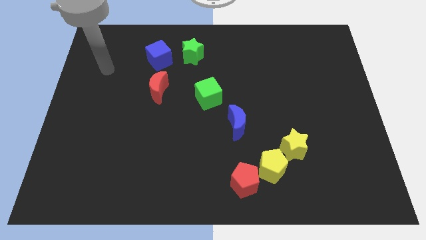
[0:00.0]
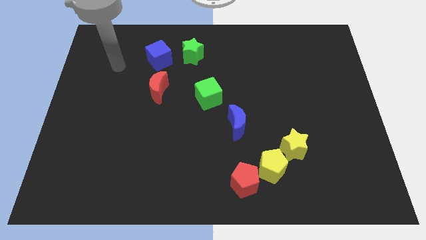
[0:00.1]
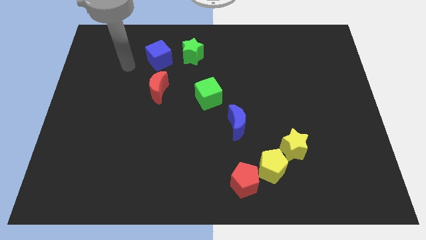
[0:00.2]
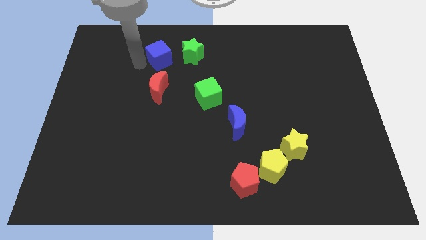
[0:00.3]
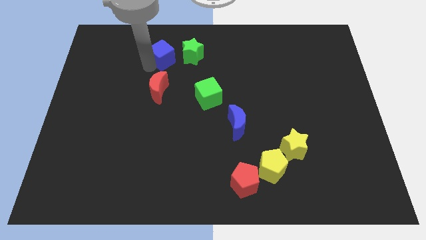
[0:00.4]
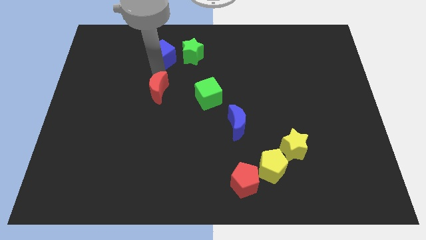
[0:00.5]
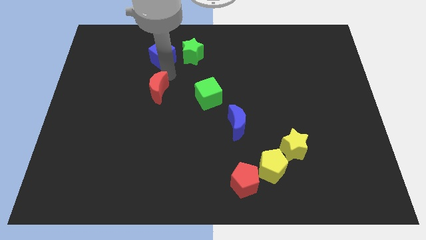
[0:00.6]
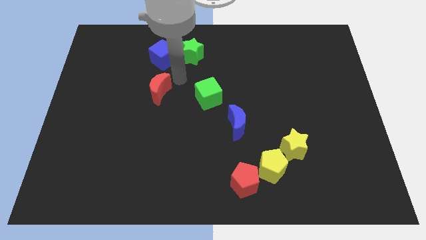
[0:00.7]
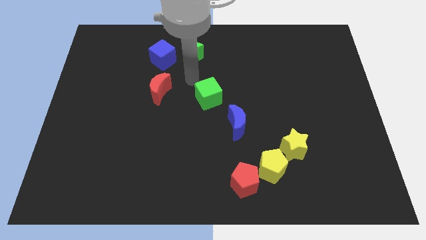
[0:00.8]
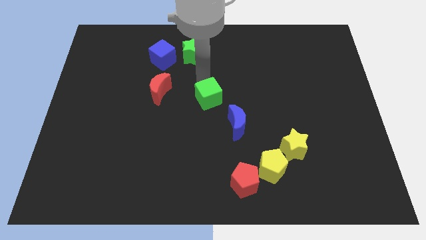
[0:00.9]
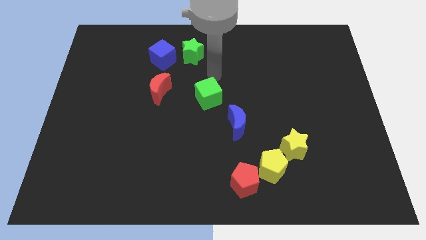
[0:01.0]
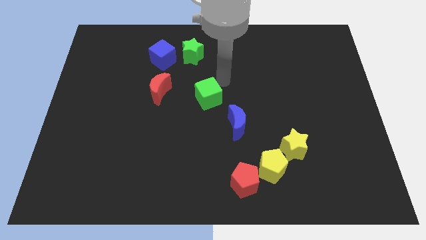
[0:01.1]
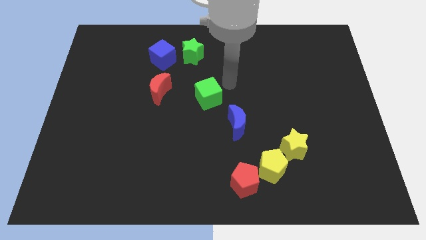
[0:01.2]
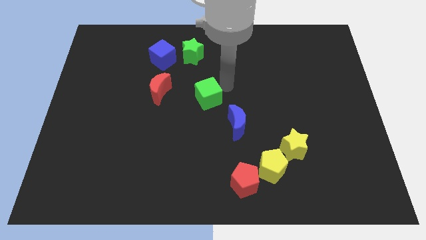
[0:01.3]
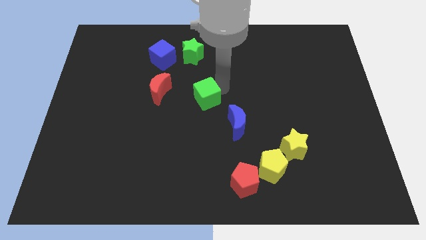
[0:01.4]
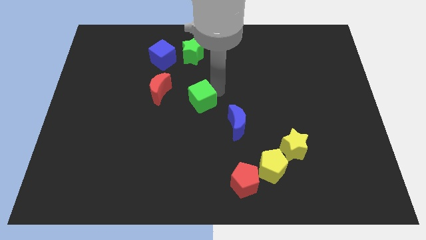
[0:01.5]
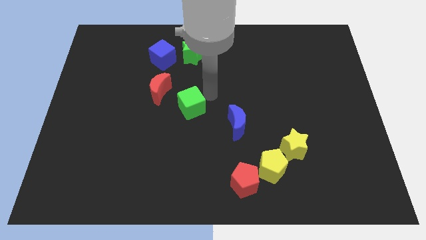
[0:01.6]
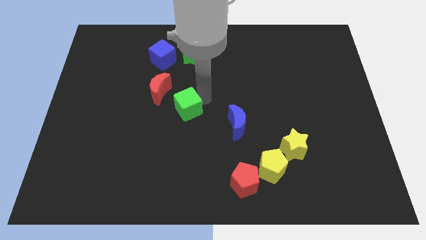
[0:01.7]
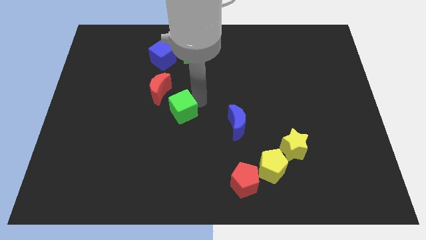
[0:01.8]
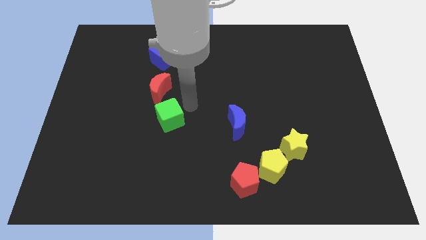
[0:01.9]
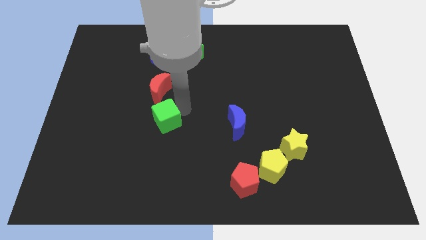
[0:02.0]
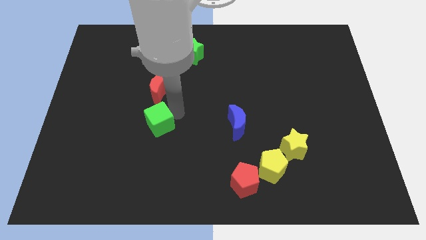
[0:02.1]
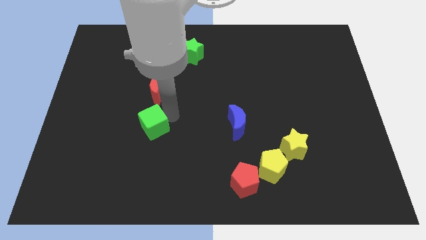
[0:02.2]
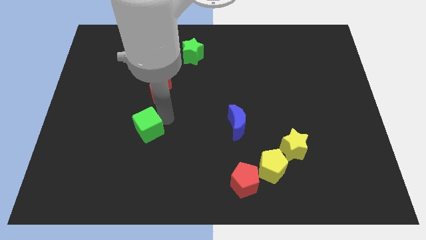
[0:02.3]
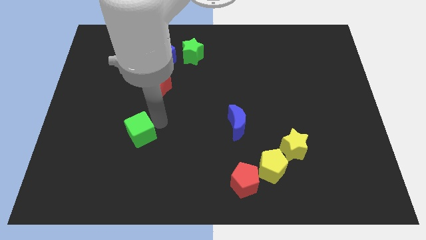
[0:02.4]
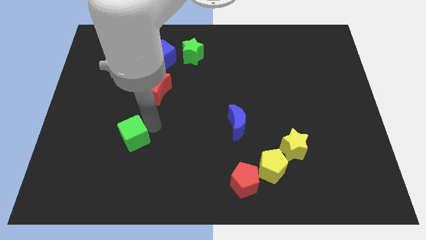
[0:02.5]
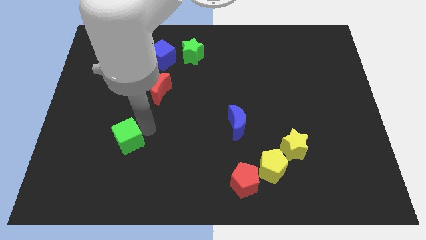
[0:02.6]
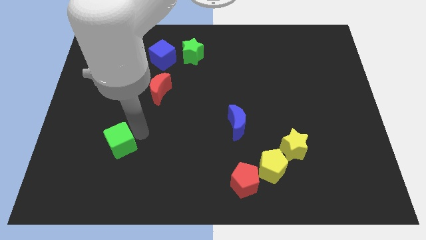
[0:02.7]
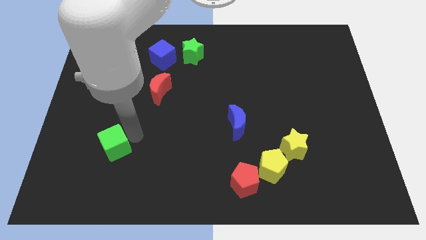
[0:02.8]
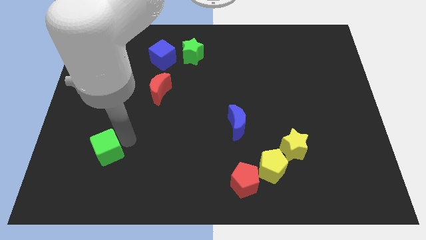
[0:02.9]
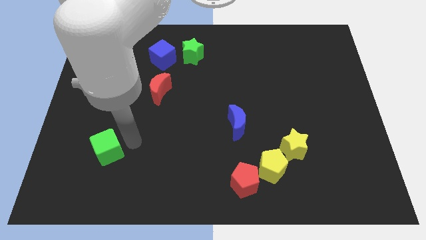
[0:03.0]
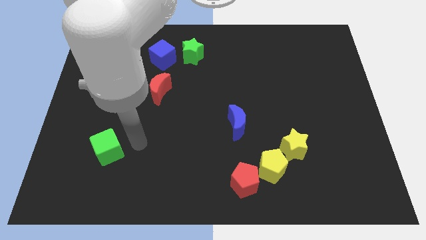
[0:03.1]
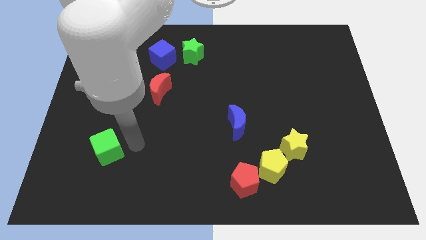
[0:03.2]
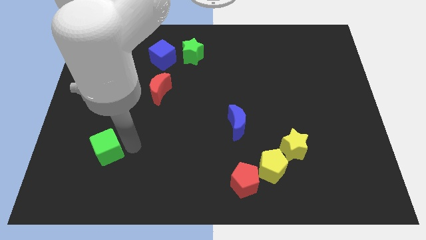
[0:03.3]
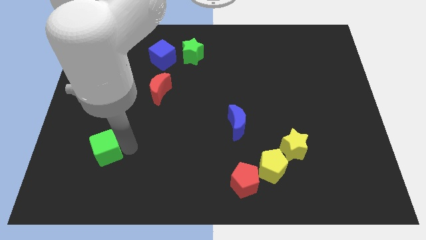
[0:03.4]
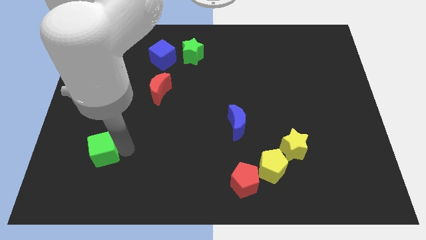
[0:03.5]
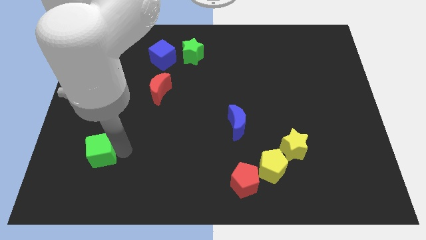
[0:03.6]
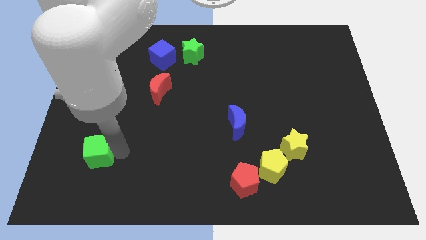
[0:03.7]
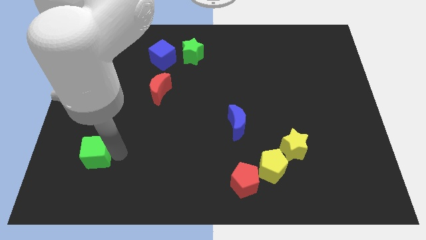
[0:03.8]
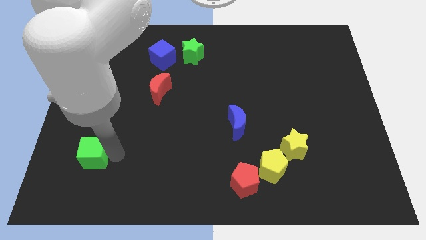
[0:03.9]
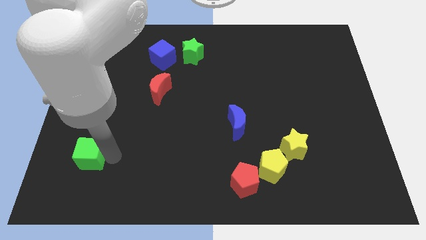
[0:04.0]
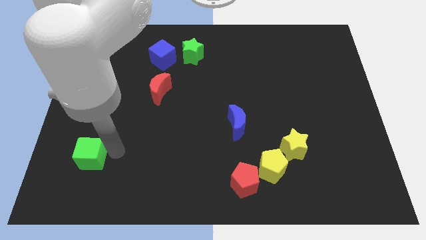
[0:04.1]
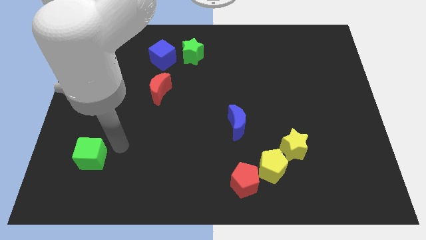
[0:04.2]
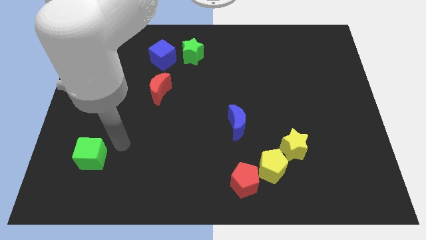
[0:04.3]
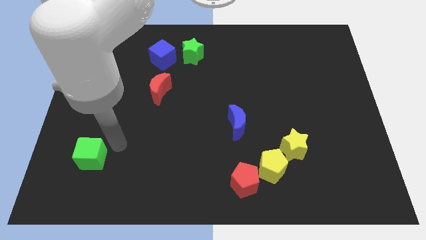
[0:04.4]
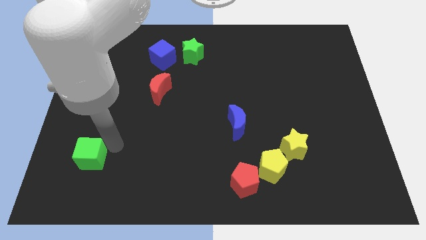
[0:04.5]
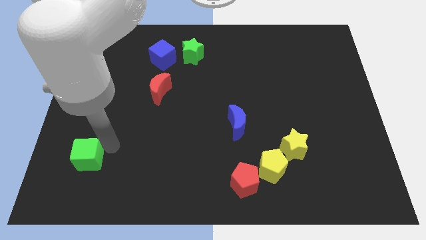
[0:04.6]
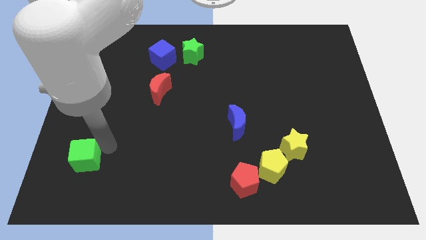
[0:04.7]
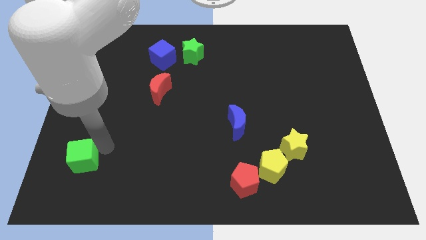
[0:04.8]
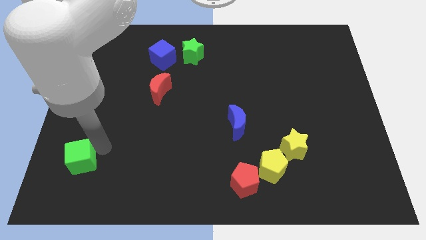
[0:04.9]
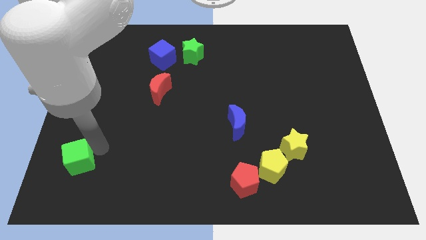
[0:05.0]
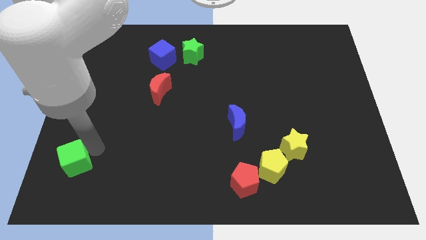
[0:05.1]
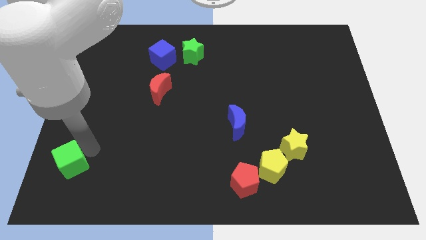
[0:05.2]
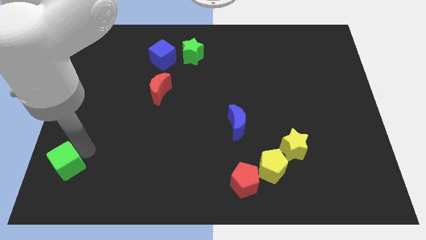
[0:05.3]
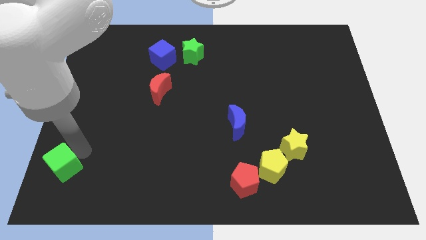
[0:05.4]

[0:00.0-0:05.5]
push the green cube to the bottom left of the board

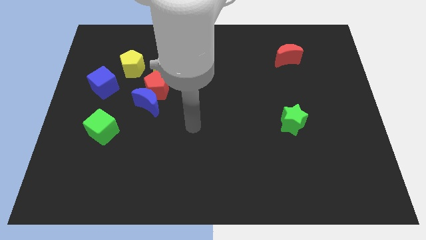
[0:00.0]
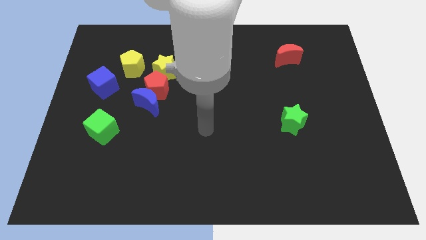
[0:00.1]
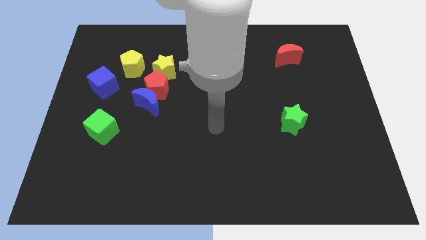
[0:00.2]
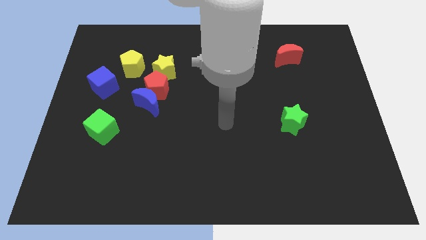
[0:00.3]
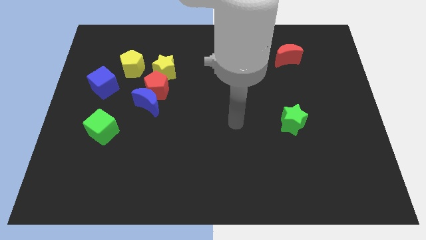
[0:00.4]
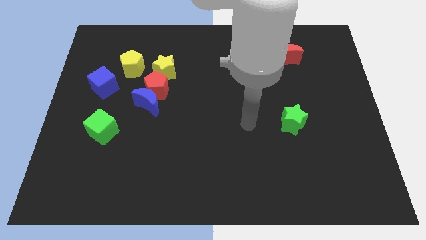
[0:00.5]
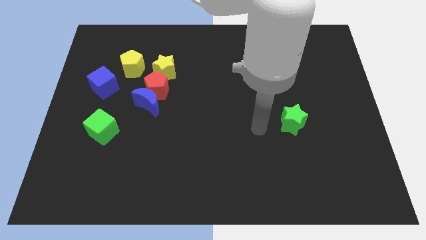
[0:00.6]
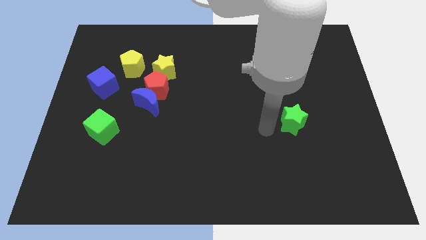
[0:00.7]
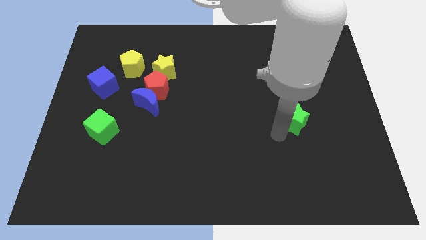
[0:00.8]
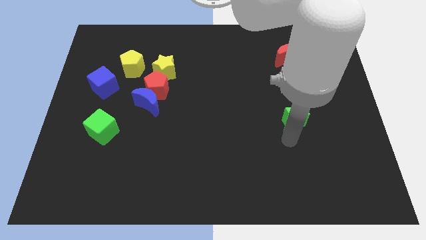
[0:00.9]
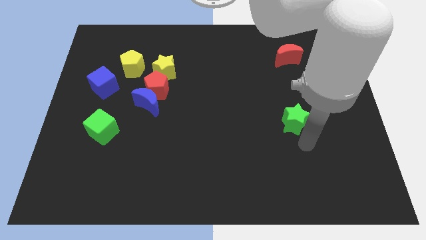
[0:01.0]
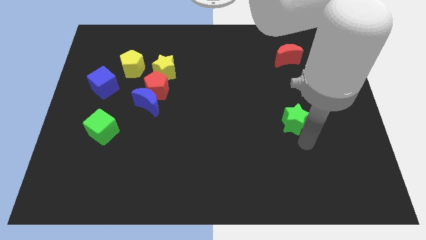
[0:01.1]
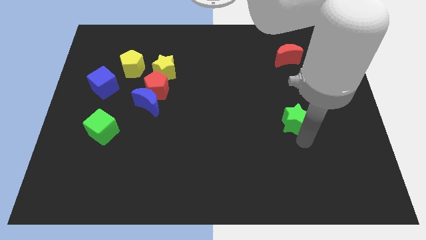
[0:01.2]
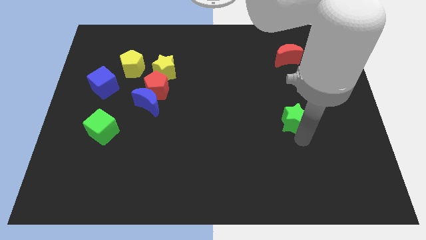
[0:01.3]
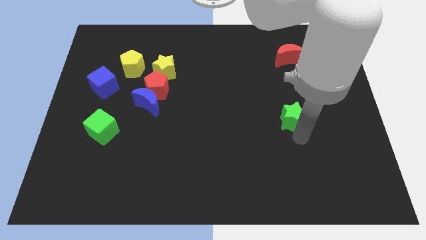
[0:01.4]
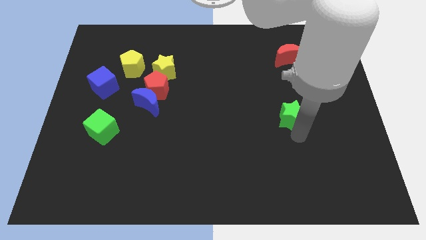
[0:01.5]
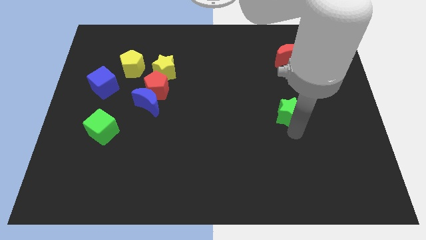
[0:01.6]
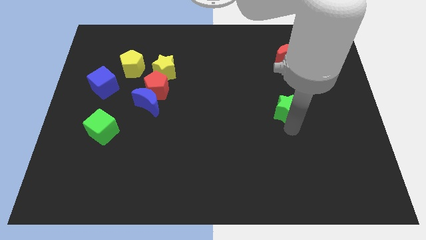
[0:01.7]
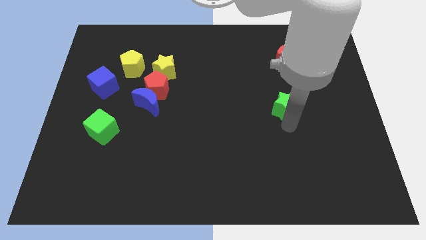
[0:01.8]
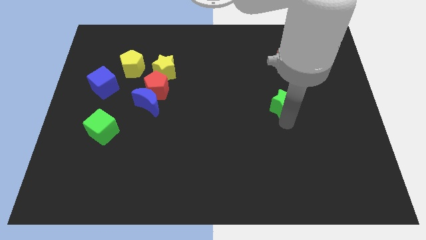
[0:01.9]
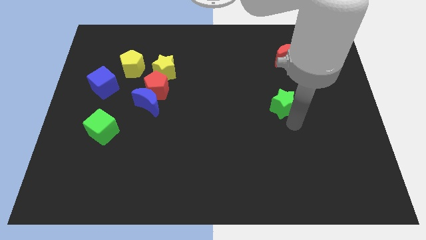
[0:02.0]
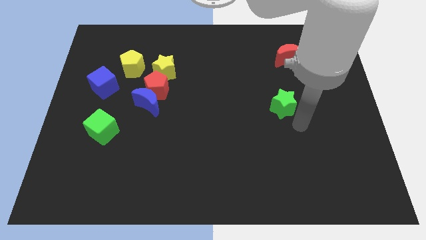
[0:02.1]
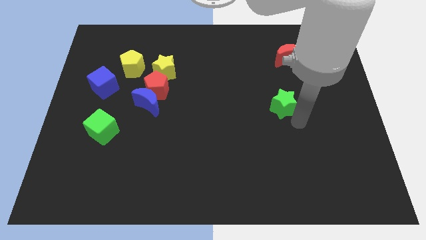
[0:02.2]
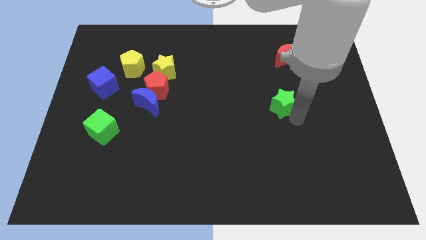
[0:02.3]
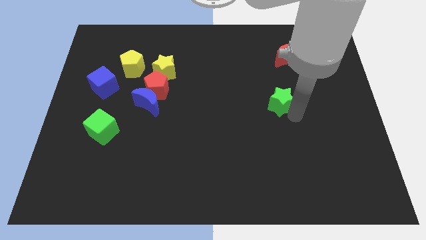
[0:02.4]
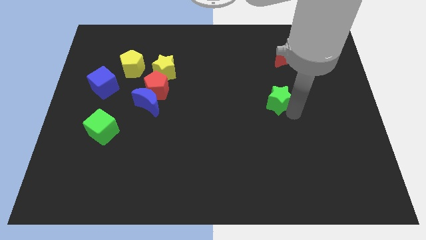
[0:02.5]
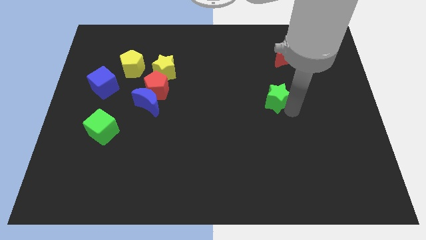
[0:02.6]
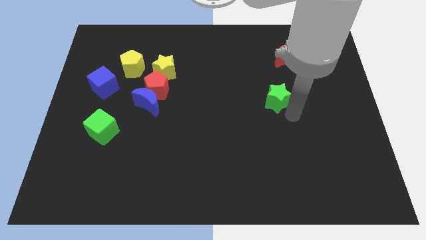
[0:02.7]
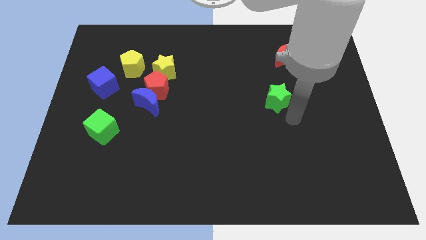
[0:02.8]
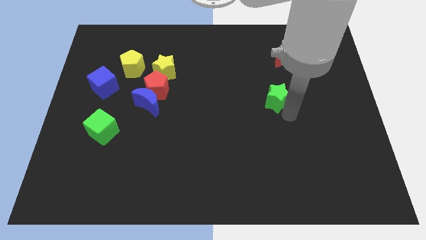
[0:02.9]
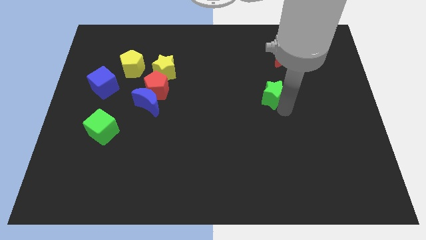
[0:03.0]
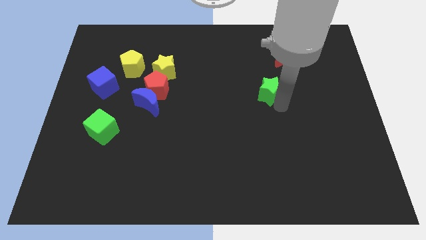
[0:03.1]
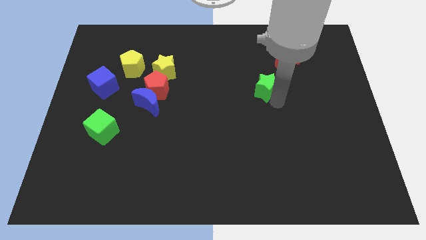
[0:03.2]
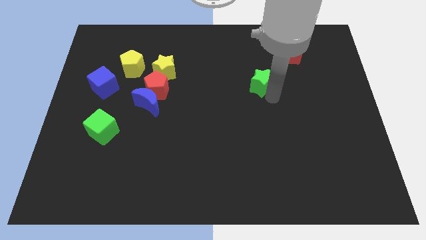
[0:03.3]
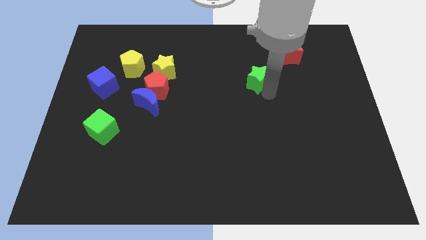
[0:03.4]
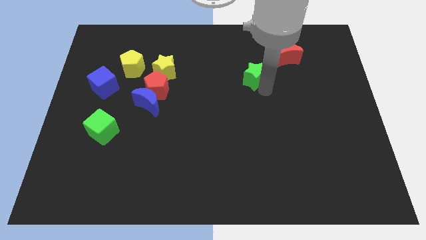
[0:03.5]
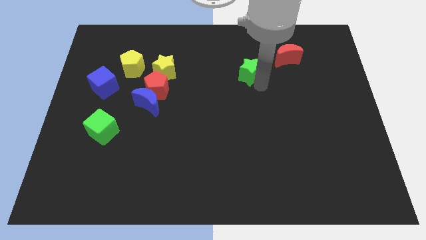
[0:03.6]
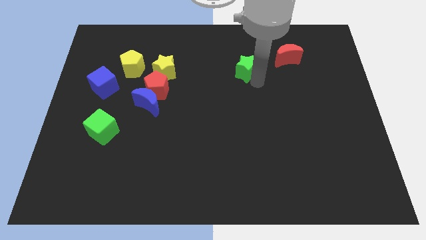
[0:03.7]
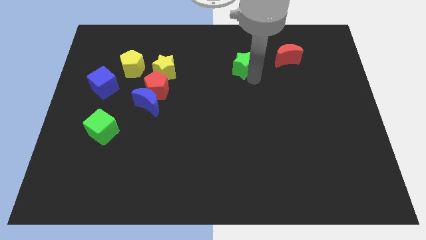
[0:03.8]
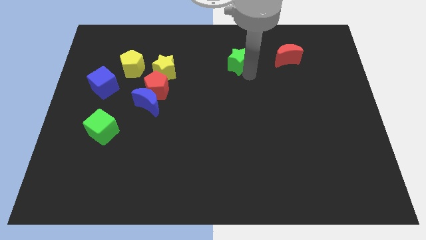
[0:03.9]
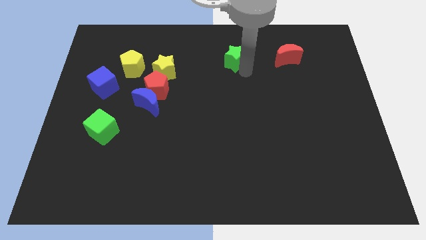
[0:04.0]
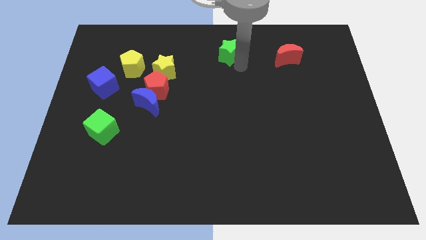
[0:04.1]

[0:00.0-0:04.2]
put the green star to the top
